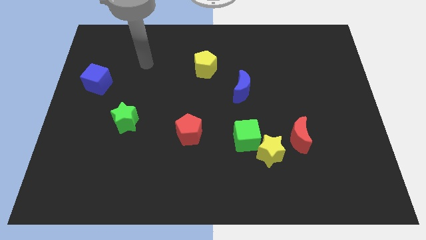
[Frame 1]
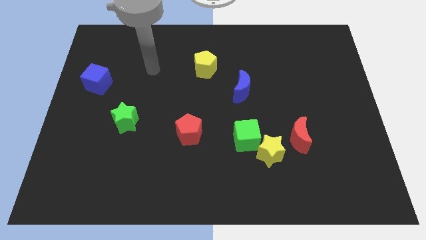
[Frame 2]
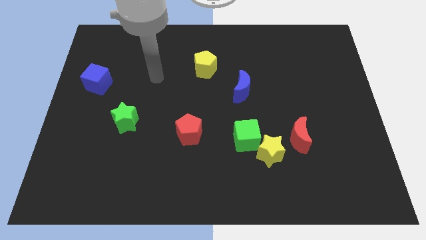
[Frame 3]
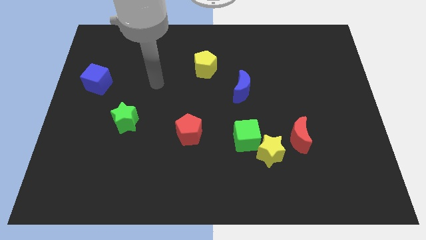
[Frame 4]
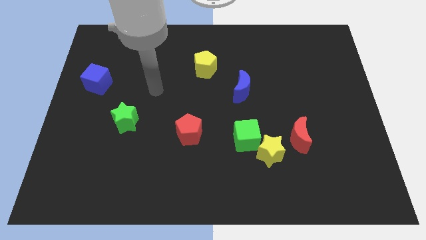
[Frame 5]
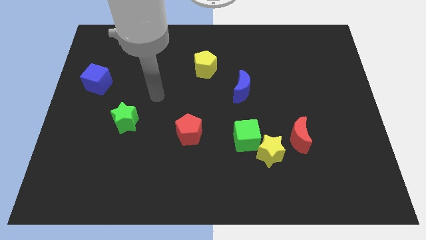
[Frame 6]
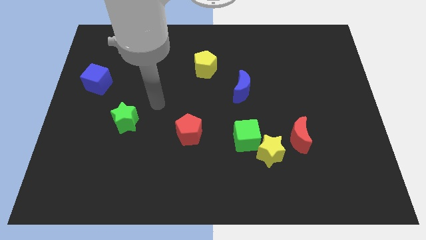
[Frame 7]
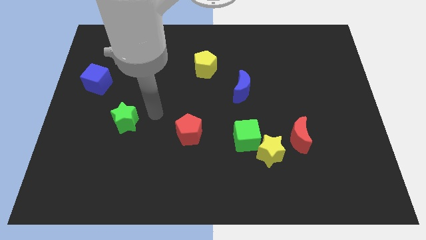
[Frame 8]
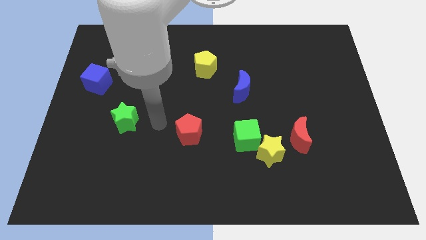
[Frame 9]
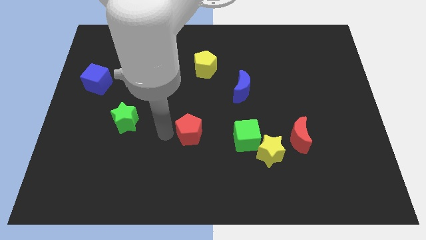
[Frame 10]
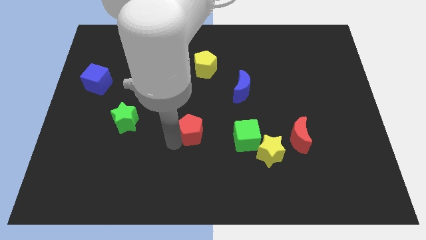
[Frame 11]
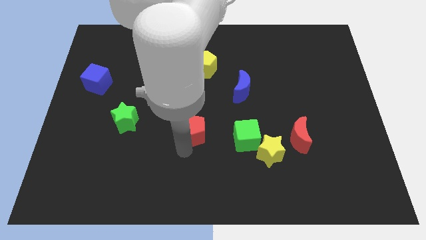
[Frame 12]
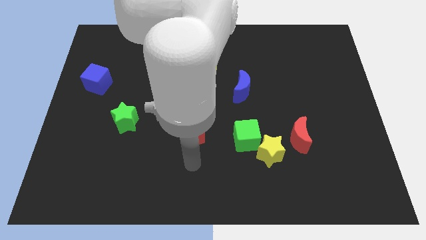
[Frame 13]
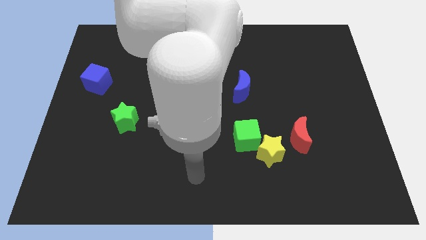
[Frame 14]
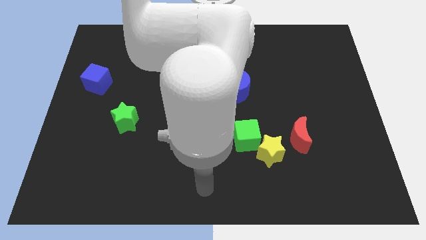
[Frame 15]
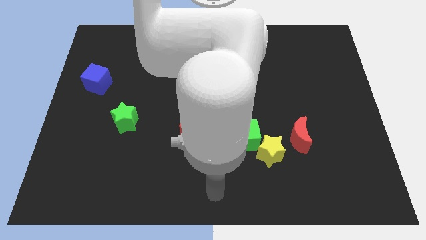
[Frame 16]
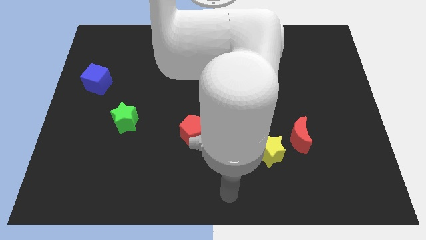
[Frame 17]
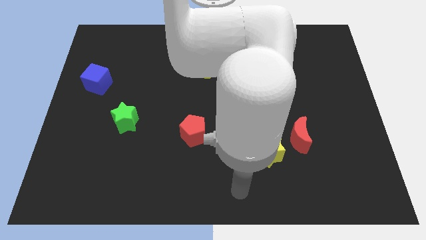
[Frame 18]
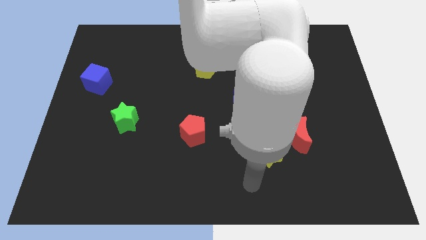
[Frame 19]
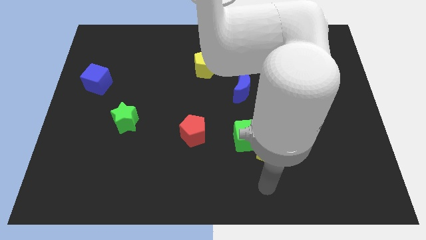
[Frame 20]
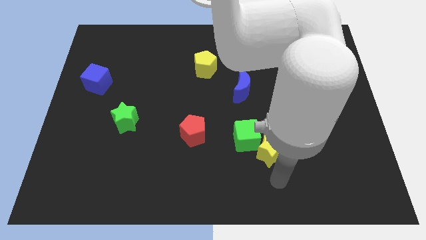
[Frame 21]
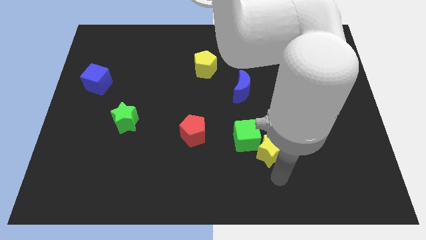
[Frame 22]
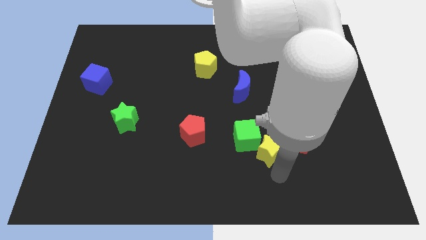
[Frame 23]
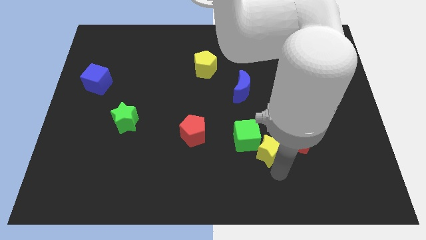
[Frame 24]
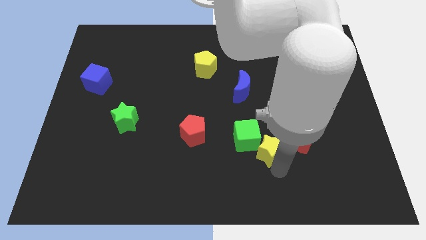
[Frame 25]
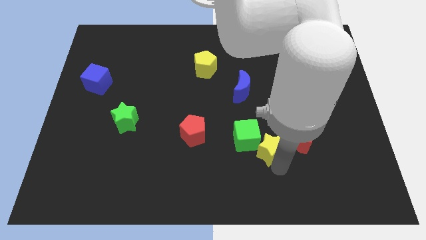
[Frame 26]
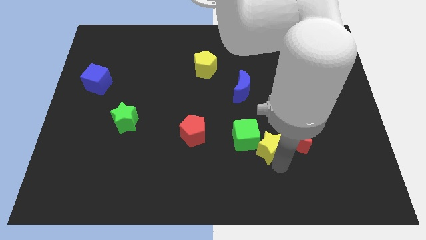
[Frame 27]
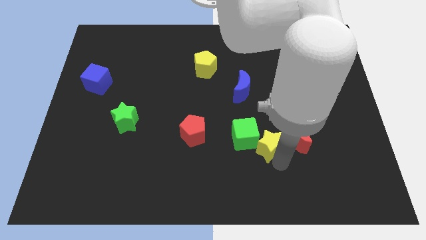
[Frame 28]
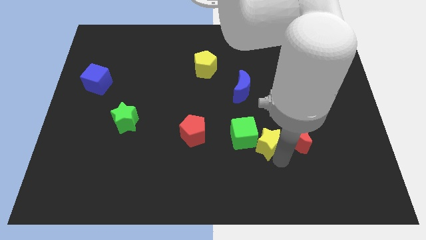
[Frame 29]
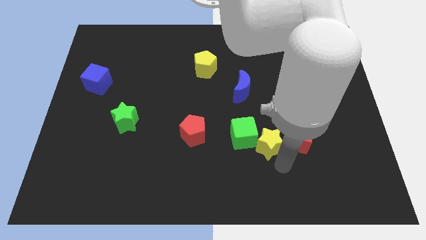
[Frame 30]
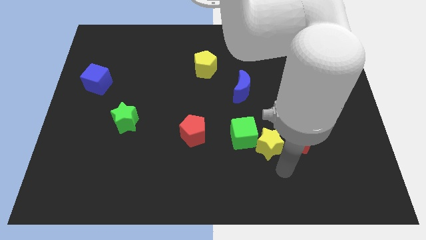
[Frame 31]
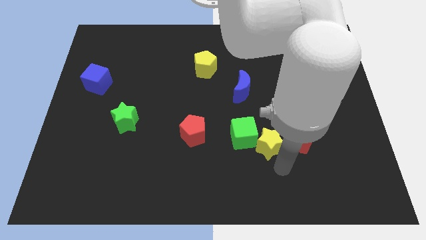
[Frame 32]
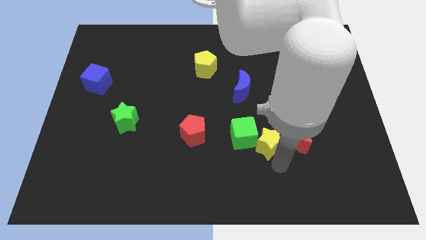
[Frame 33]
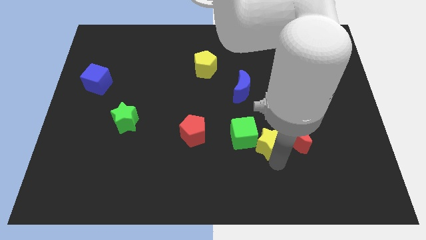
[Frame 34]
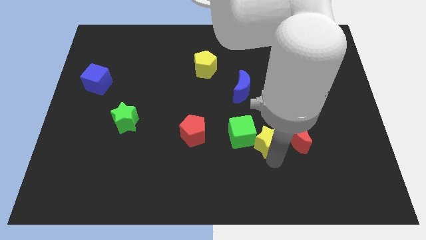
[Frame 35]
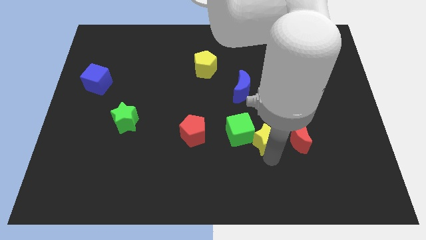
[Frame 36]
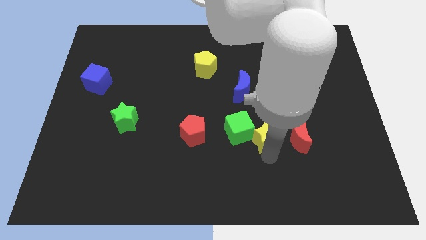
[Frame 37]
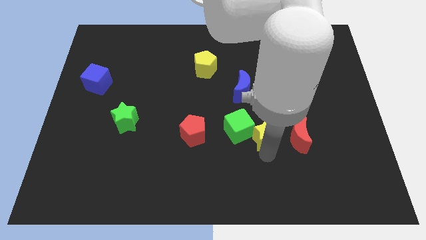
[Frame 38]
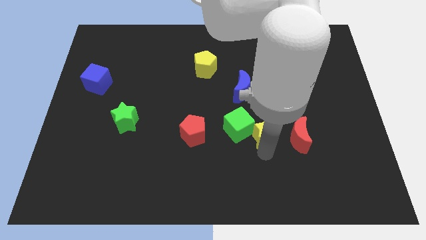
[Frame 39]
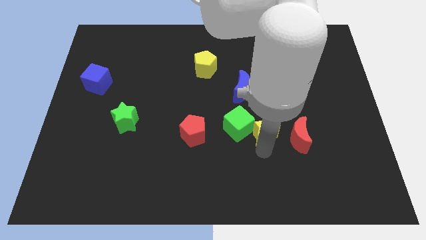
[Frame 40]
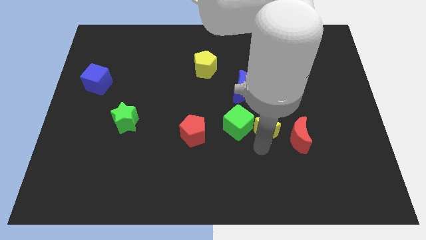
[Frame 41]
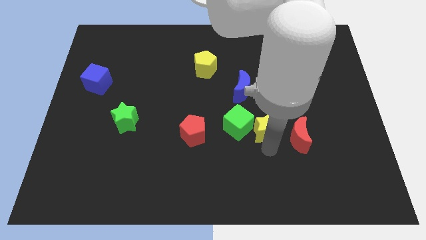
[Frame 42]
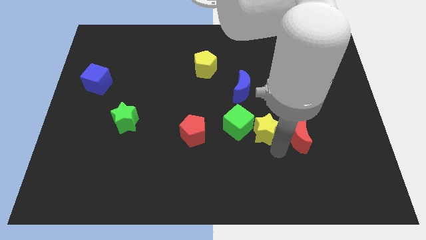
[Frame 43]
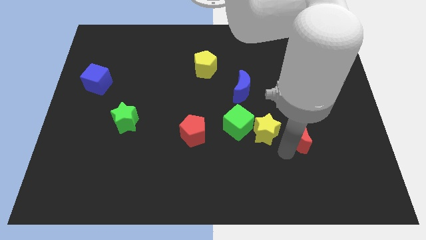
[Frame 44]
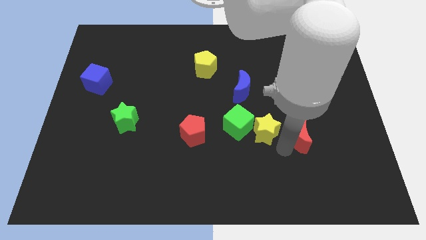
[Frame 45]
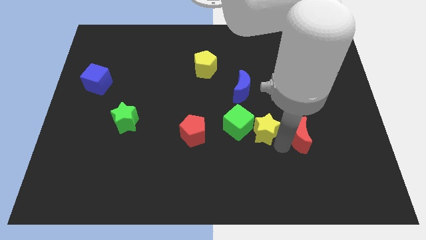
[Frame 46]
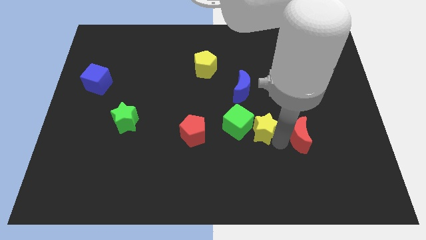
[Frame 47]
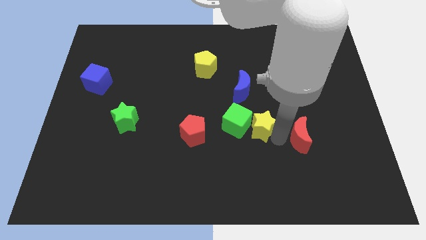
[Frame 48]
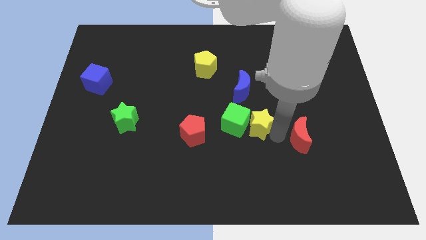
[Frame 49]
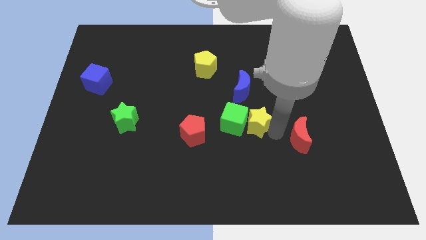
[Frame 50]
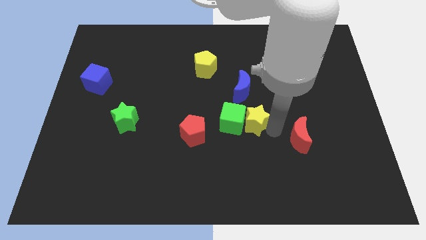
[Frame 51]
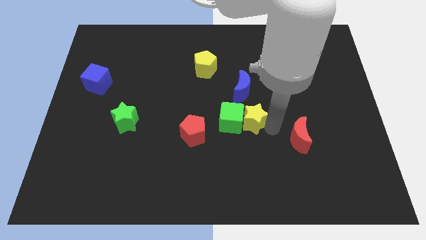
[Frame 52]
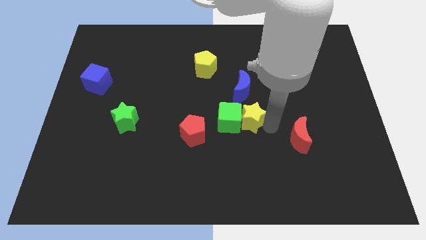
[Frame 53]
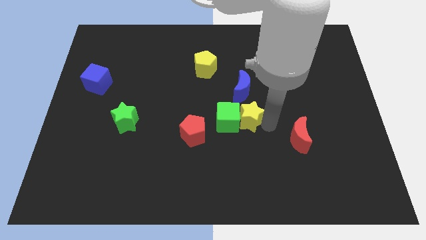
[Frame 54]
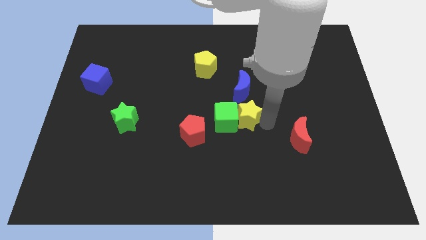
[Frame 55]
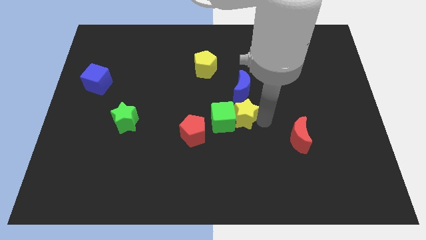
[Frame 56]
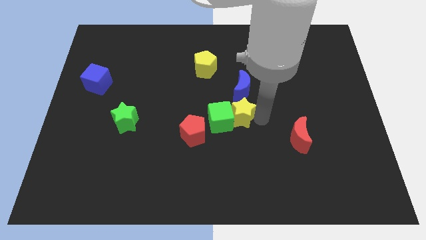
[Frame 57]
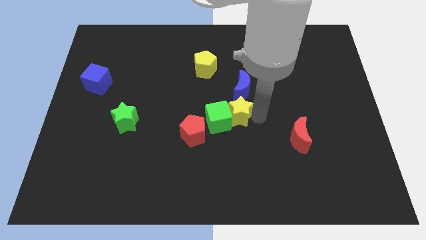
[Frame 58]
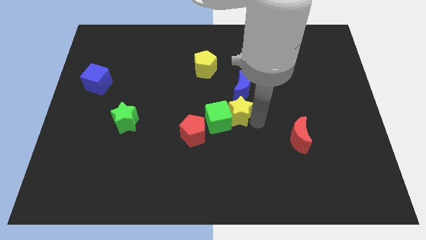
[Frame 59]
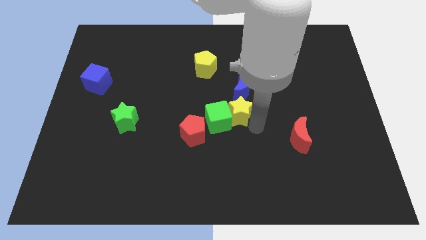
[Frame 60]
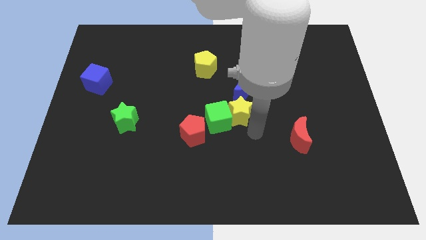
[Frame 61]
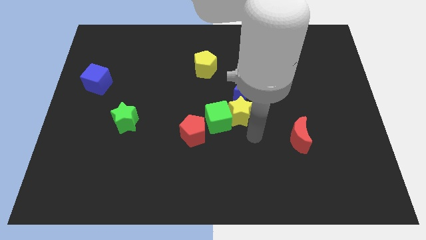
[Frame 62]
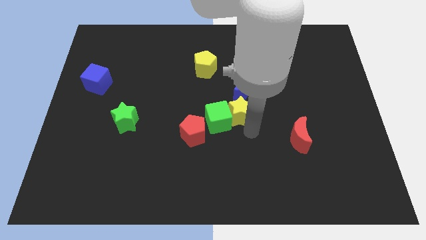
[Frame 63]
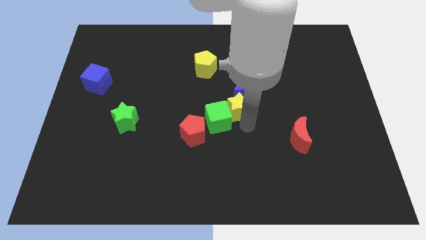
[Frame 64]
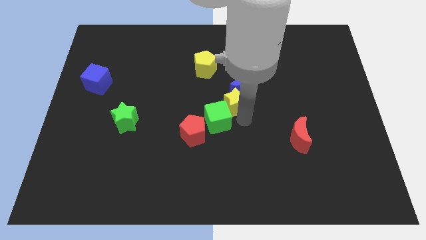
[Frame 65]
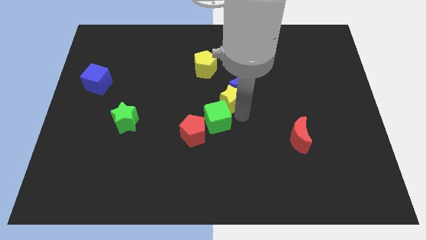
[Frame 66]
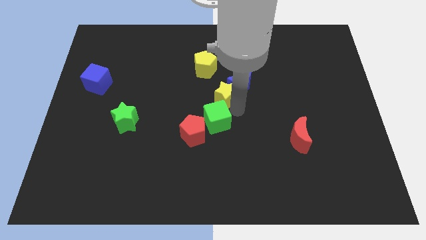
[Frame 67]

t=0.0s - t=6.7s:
slide the yellow star to the bottom right side of the yellow pentagon

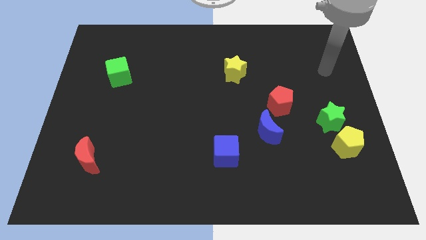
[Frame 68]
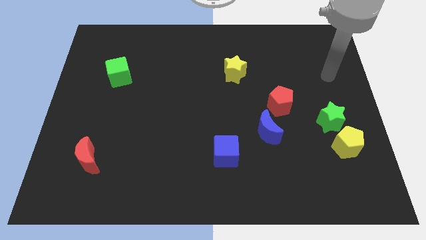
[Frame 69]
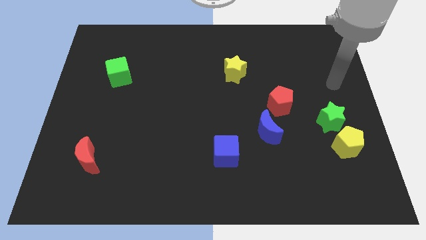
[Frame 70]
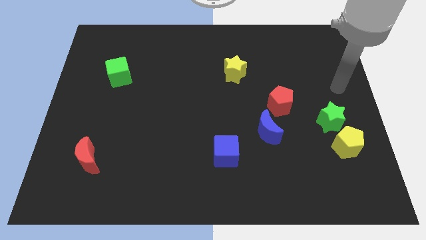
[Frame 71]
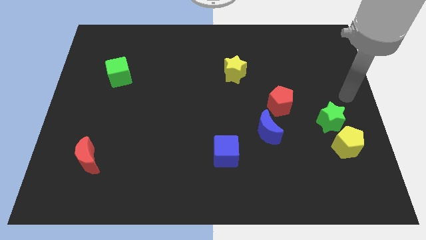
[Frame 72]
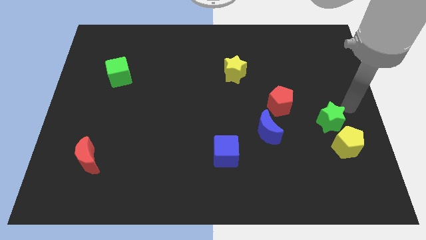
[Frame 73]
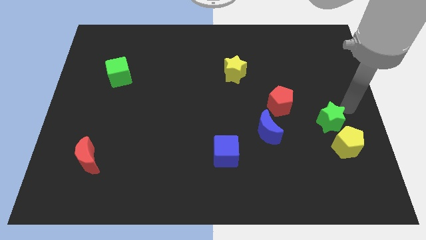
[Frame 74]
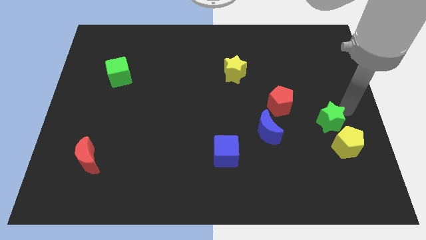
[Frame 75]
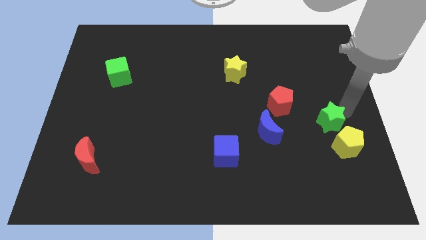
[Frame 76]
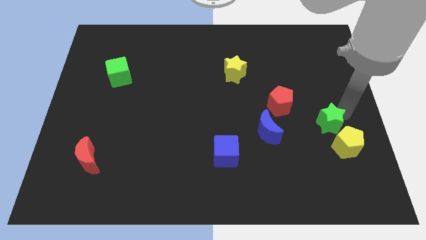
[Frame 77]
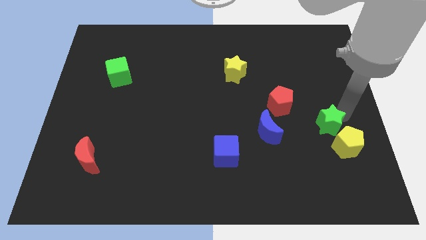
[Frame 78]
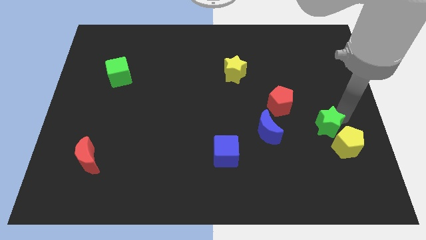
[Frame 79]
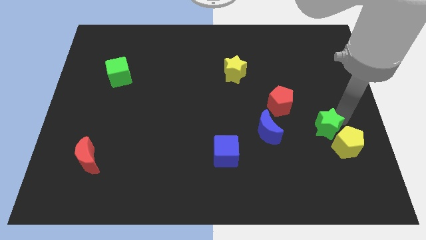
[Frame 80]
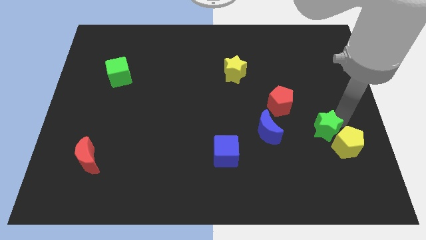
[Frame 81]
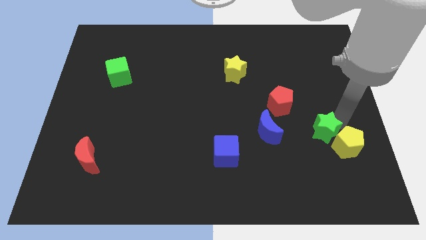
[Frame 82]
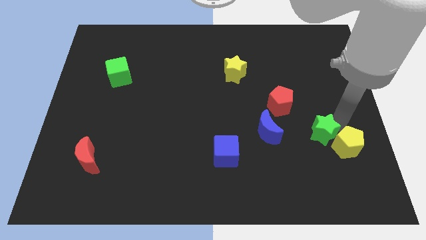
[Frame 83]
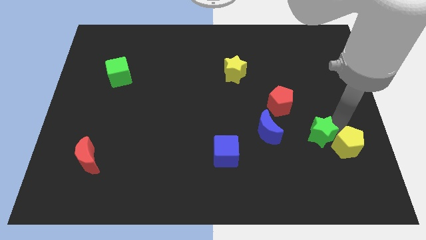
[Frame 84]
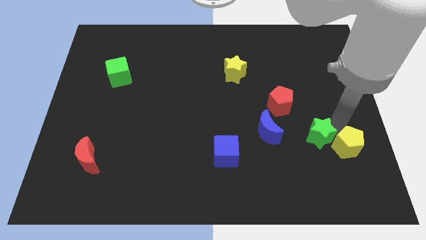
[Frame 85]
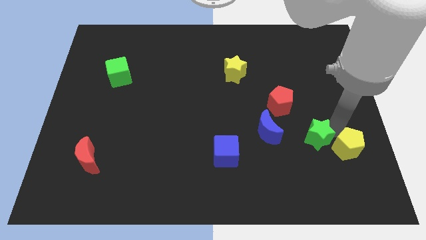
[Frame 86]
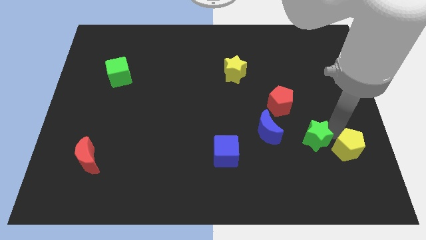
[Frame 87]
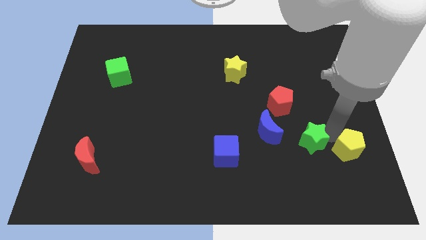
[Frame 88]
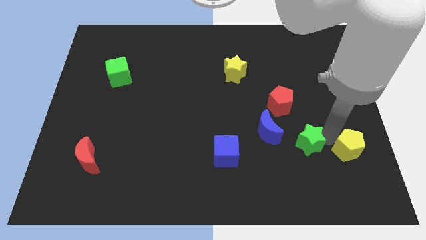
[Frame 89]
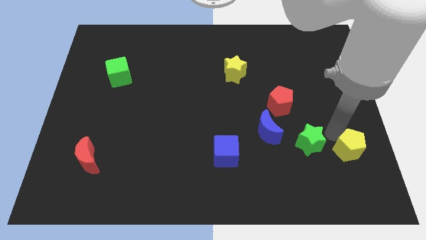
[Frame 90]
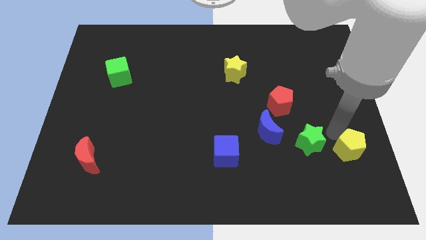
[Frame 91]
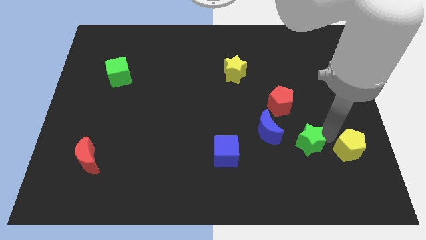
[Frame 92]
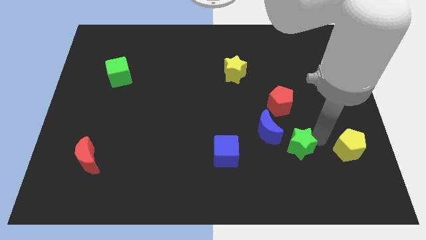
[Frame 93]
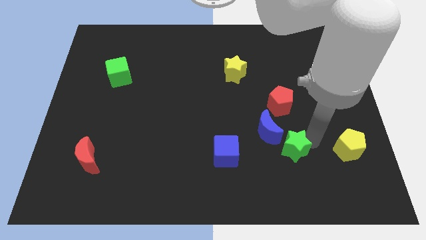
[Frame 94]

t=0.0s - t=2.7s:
push the green star right of the blue cube
